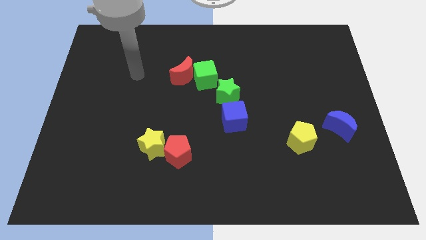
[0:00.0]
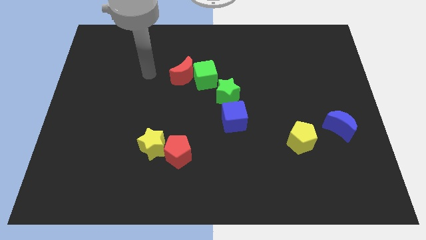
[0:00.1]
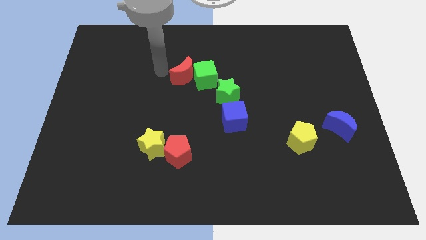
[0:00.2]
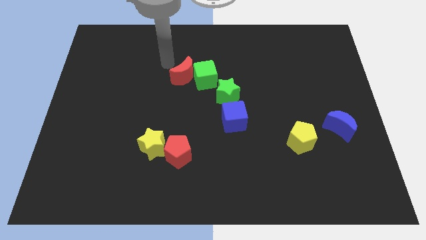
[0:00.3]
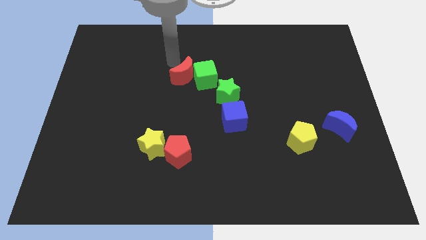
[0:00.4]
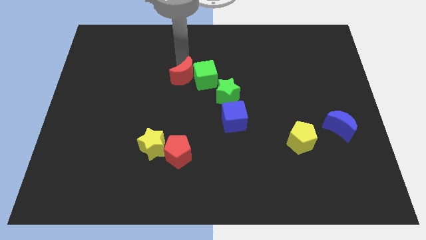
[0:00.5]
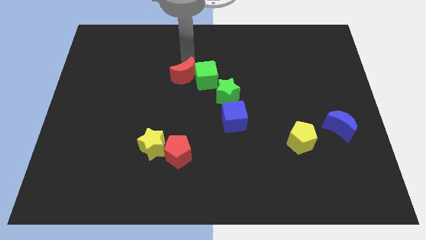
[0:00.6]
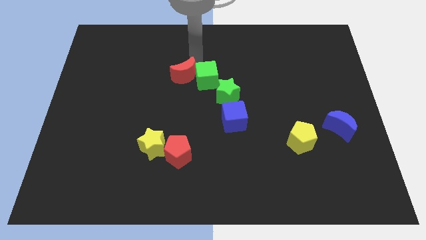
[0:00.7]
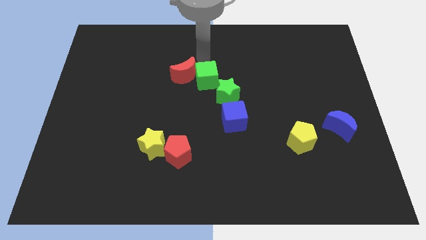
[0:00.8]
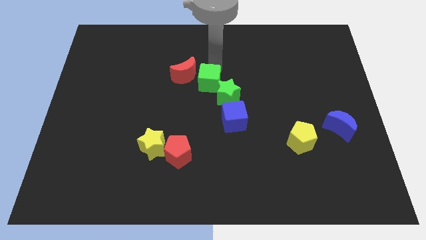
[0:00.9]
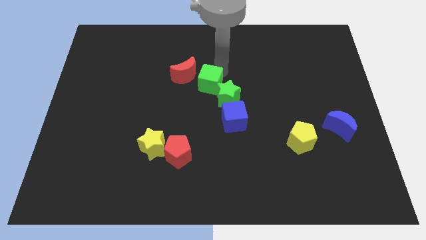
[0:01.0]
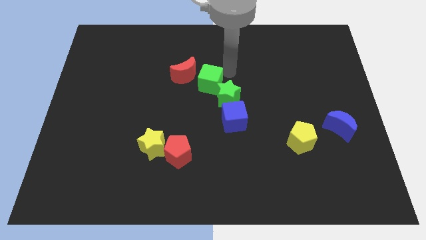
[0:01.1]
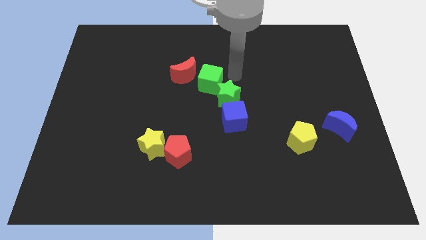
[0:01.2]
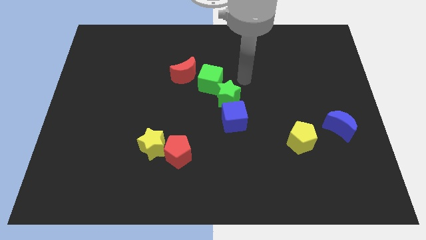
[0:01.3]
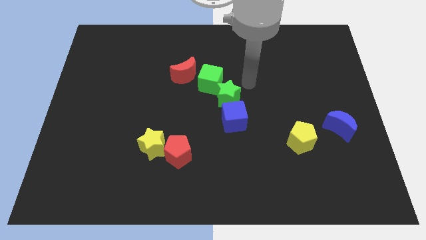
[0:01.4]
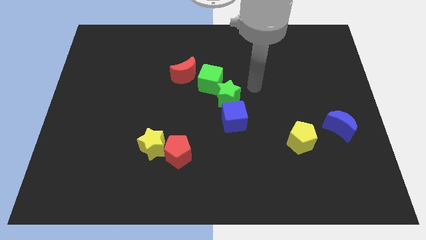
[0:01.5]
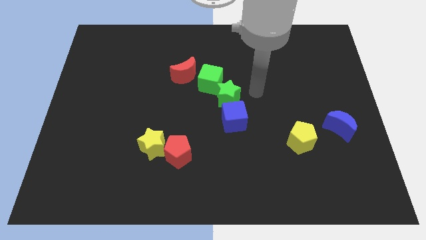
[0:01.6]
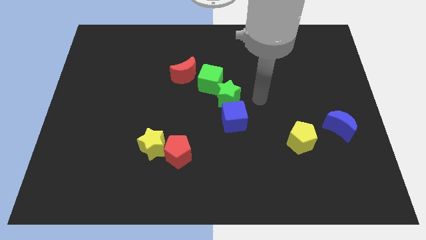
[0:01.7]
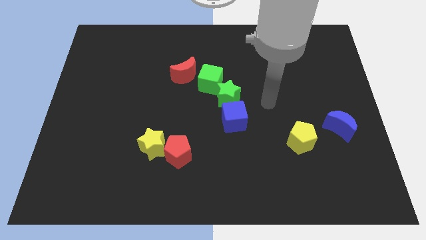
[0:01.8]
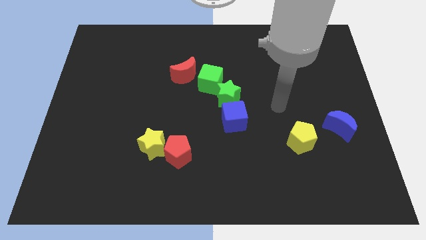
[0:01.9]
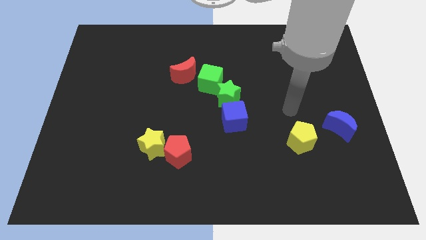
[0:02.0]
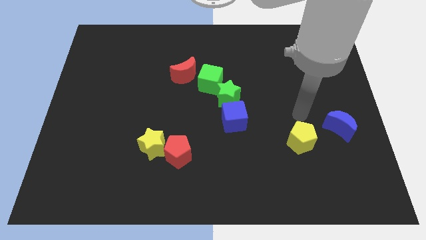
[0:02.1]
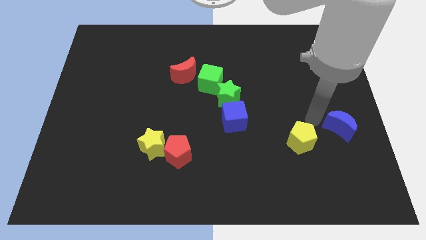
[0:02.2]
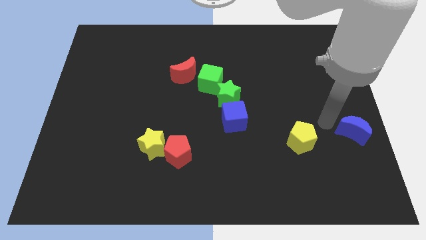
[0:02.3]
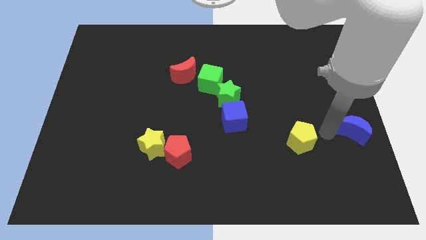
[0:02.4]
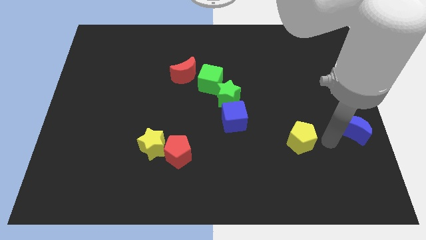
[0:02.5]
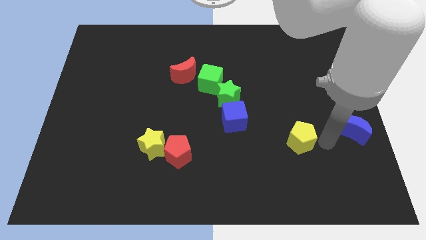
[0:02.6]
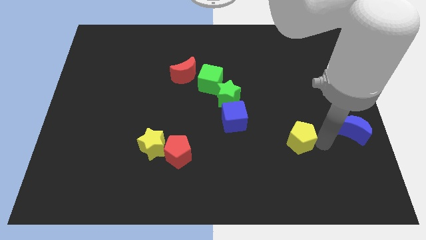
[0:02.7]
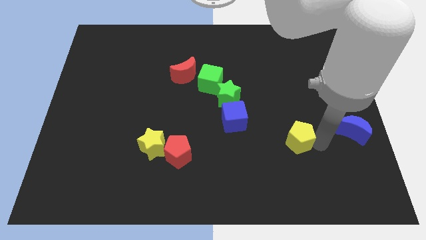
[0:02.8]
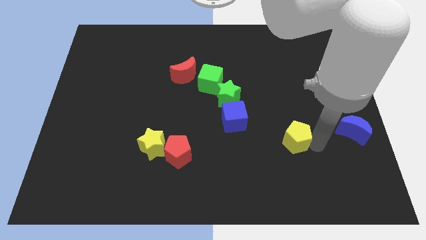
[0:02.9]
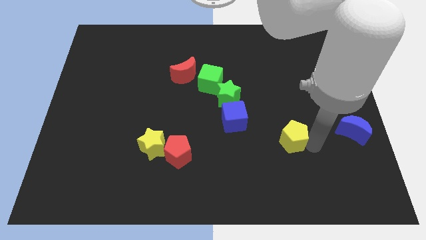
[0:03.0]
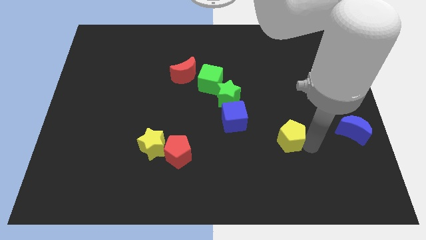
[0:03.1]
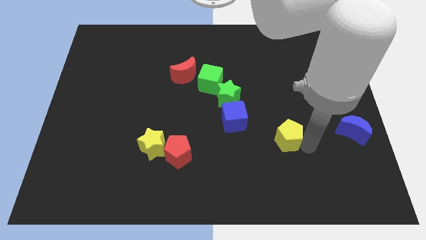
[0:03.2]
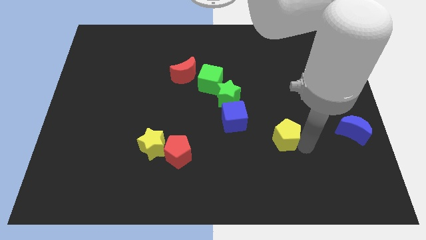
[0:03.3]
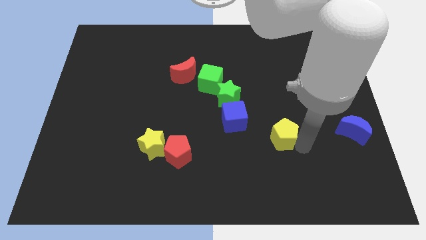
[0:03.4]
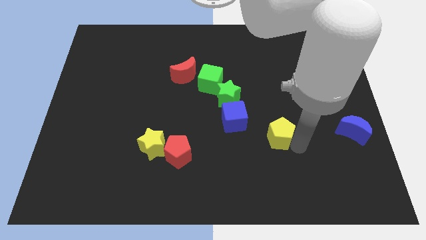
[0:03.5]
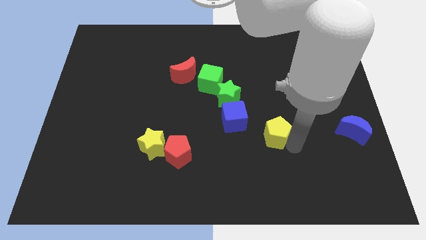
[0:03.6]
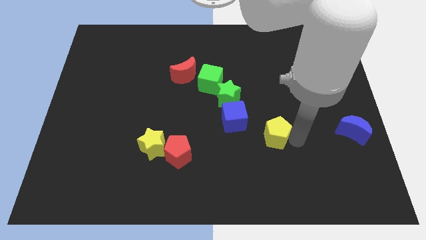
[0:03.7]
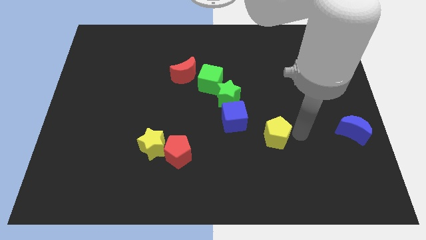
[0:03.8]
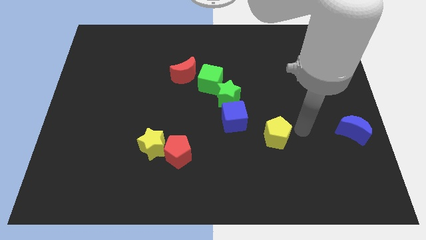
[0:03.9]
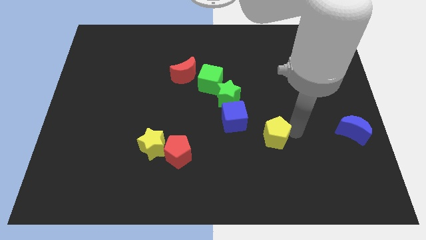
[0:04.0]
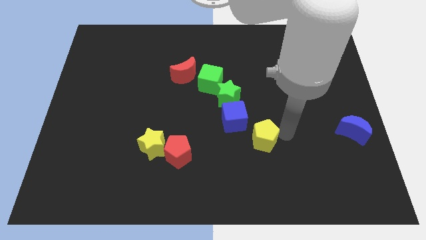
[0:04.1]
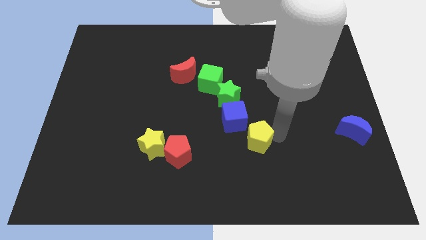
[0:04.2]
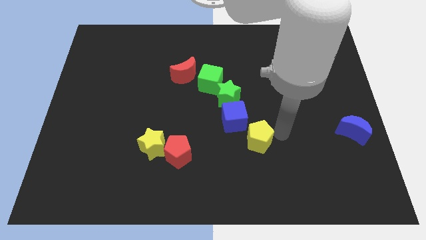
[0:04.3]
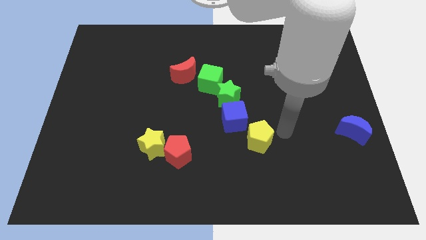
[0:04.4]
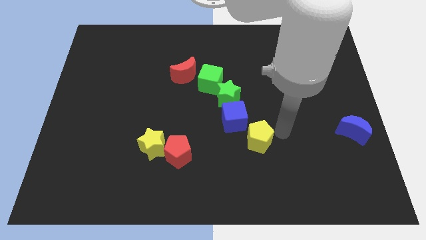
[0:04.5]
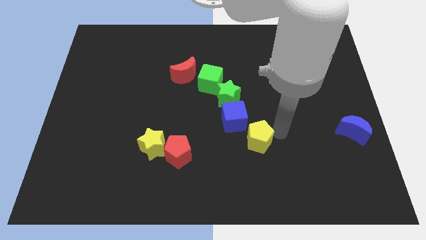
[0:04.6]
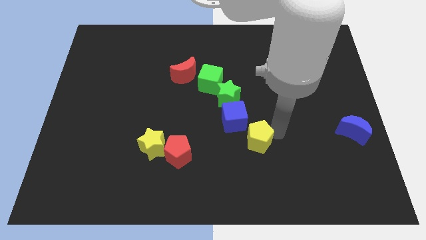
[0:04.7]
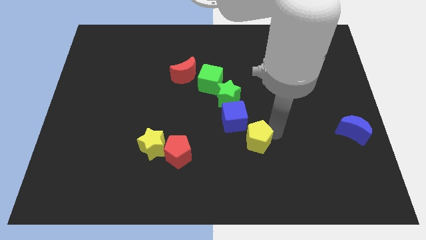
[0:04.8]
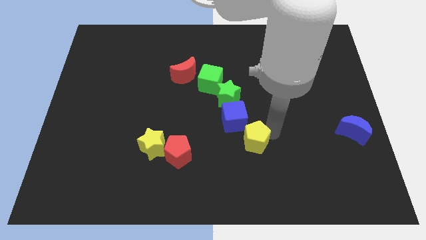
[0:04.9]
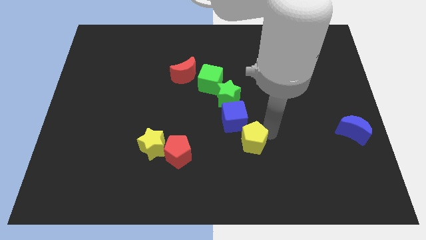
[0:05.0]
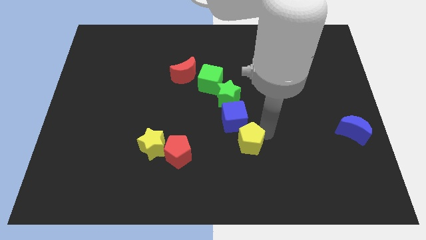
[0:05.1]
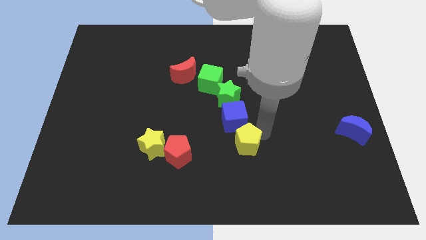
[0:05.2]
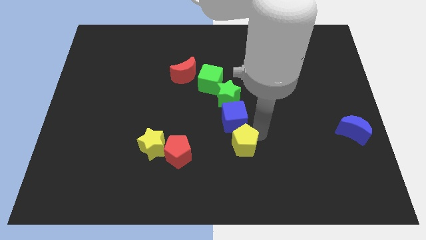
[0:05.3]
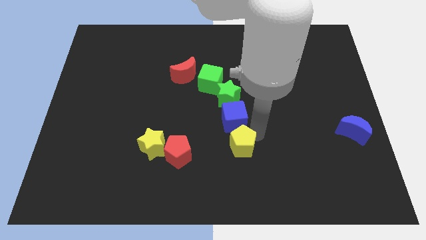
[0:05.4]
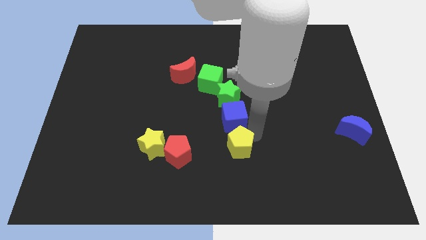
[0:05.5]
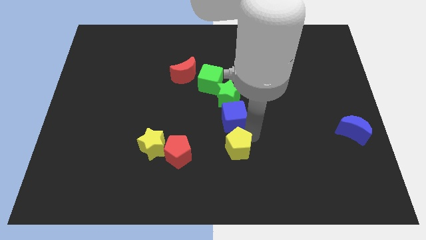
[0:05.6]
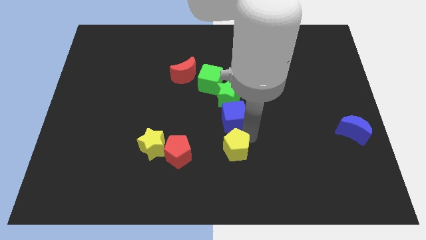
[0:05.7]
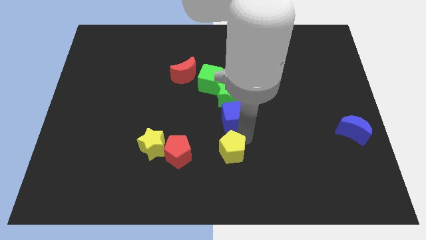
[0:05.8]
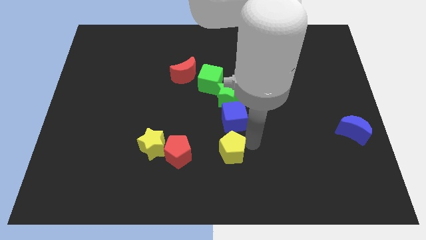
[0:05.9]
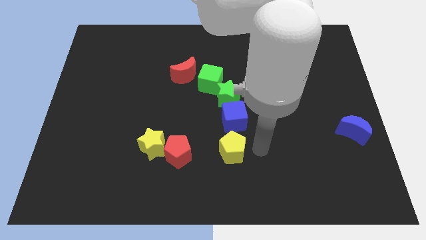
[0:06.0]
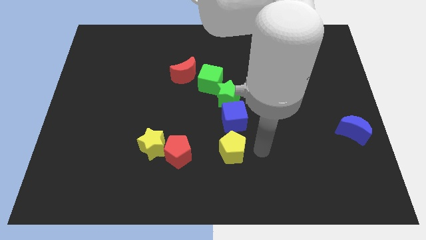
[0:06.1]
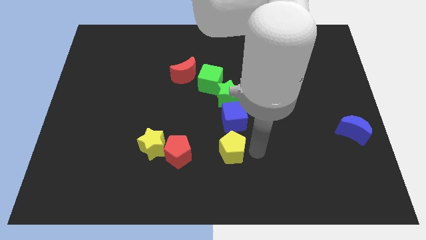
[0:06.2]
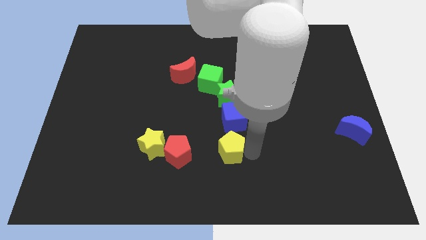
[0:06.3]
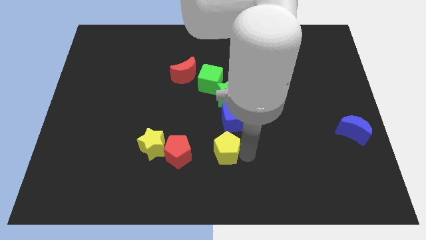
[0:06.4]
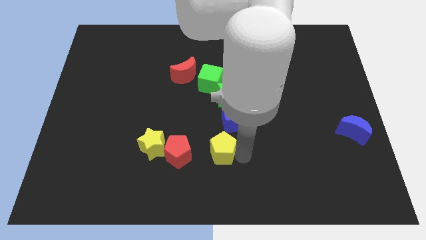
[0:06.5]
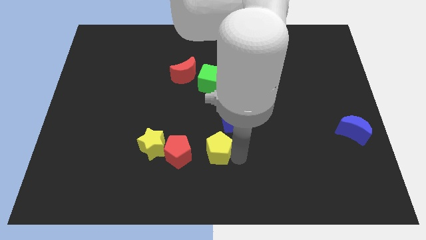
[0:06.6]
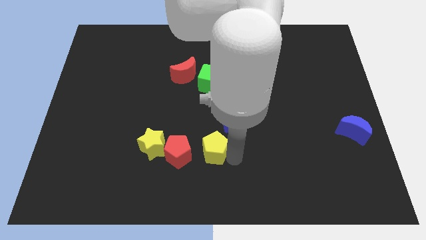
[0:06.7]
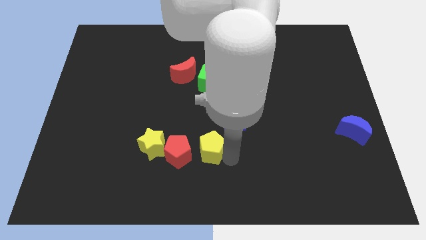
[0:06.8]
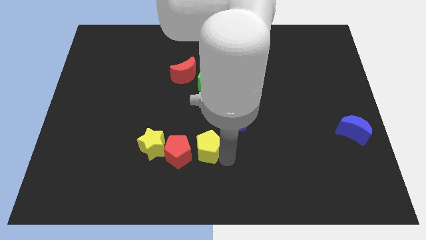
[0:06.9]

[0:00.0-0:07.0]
slide the yellow pentagon towards the red pentagon

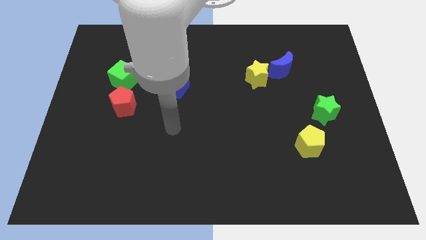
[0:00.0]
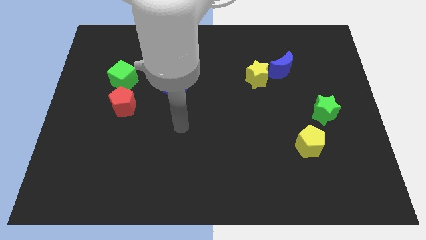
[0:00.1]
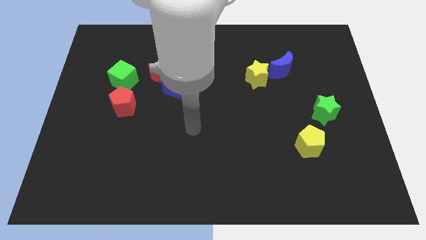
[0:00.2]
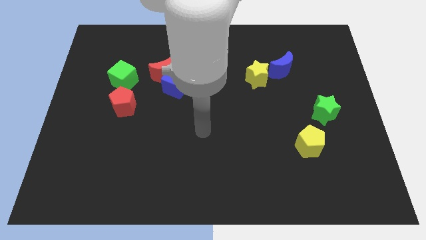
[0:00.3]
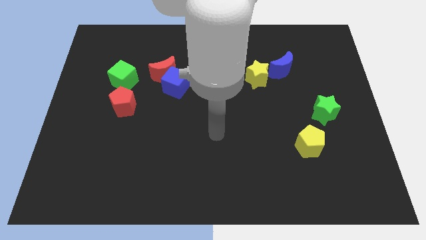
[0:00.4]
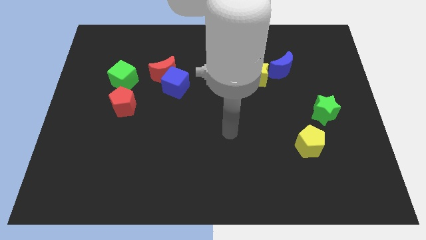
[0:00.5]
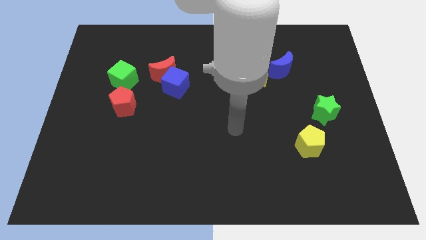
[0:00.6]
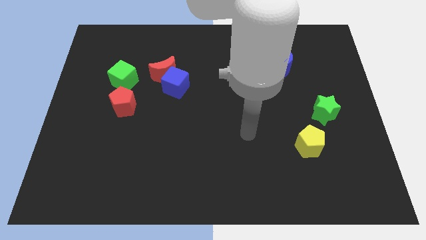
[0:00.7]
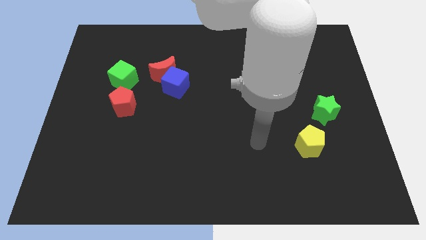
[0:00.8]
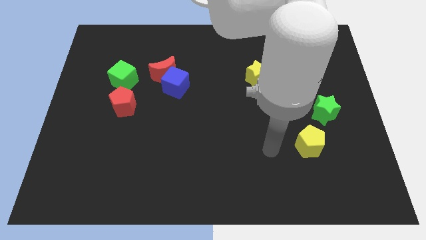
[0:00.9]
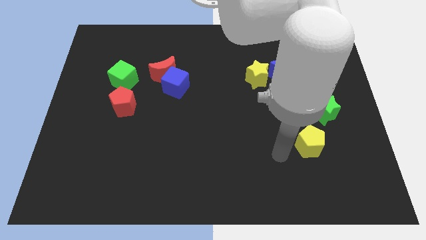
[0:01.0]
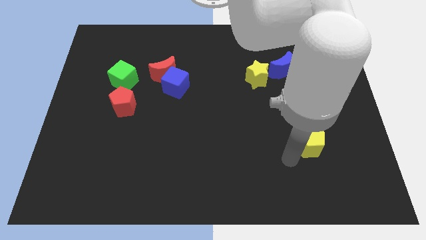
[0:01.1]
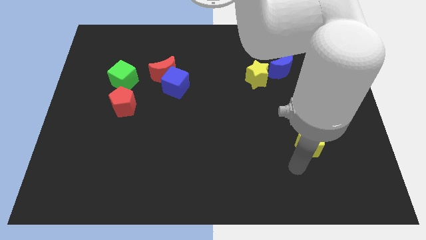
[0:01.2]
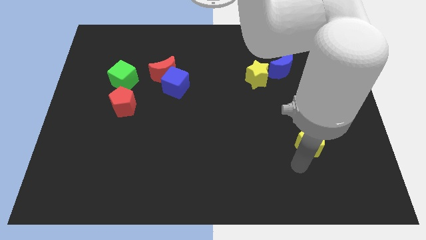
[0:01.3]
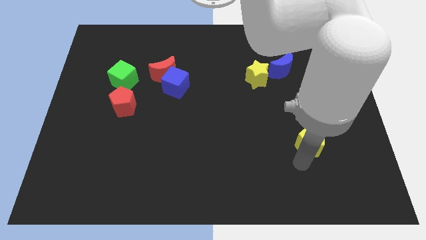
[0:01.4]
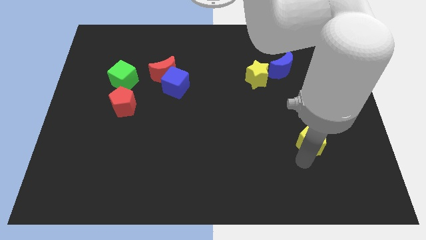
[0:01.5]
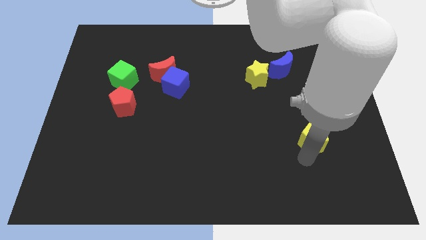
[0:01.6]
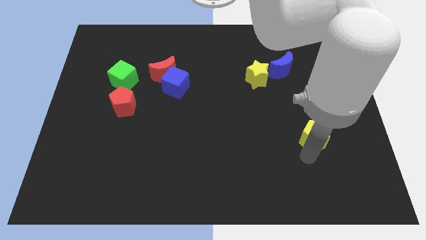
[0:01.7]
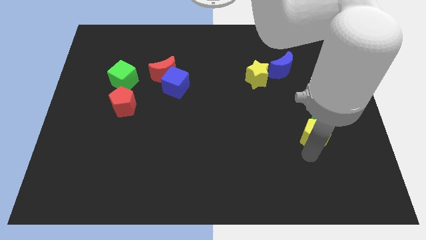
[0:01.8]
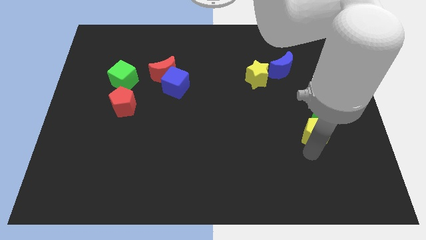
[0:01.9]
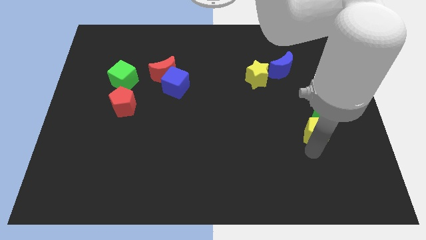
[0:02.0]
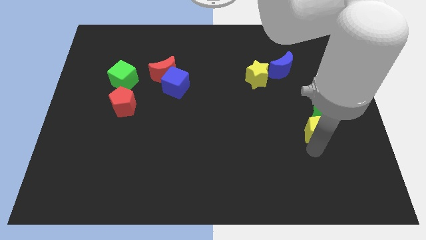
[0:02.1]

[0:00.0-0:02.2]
push the yellow pentagon close to the green star
